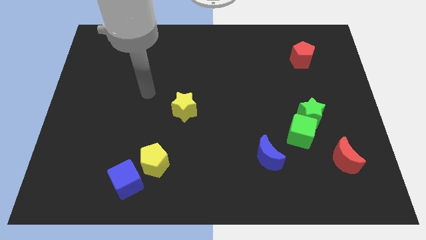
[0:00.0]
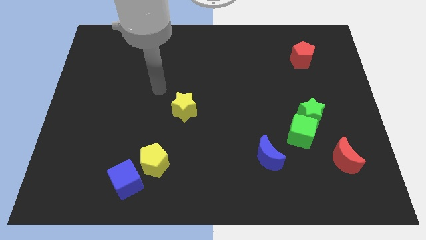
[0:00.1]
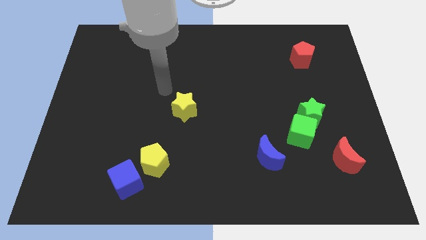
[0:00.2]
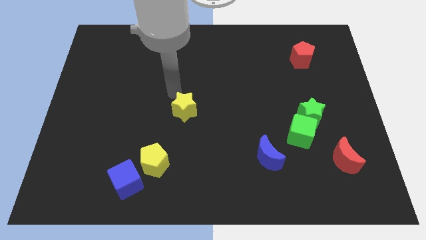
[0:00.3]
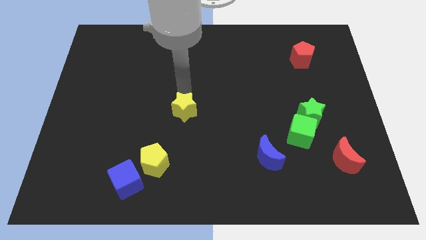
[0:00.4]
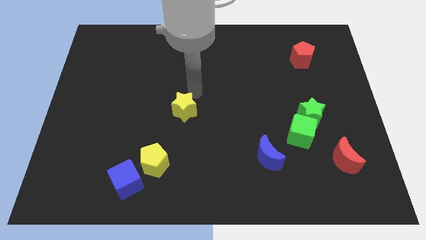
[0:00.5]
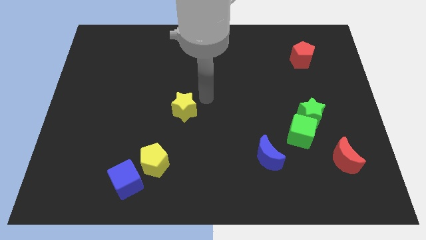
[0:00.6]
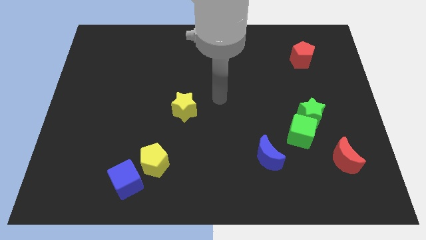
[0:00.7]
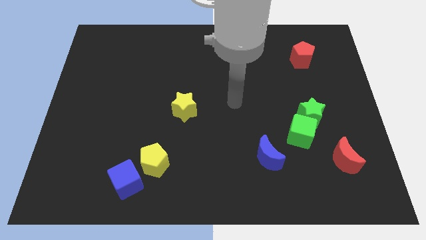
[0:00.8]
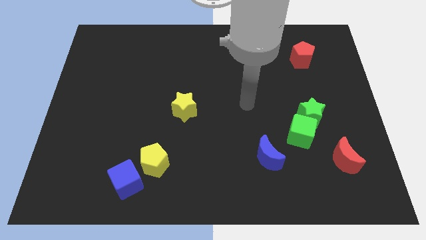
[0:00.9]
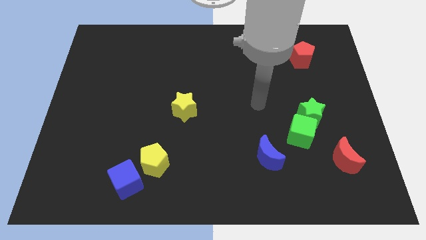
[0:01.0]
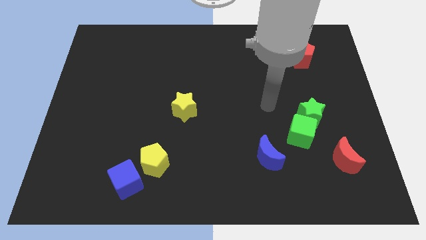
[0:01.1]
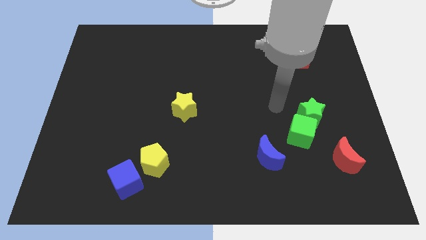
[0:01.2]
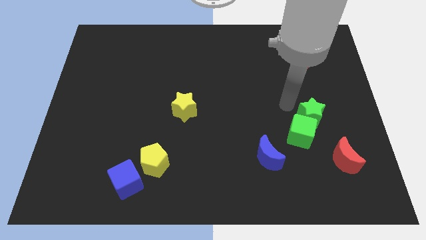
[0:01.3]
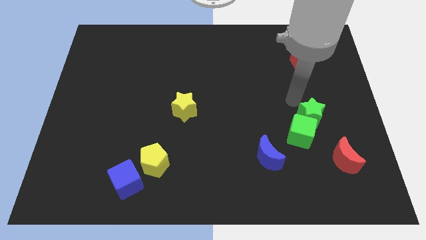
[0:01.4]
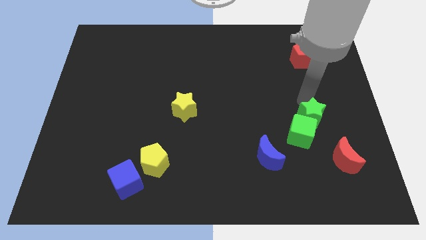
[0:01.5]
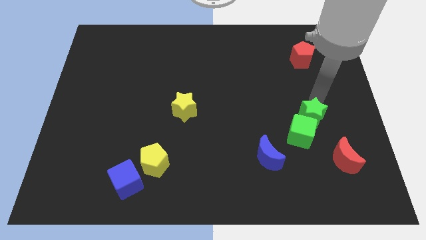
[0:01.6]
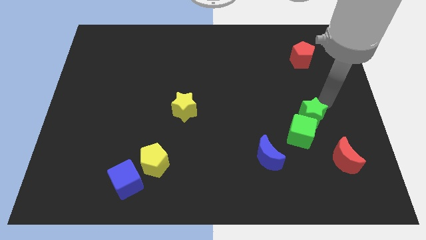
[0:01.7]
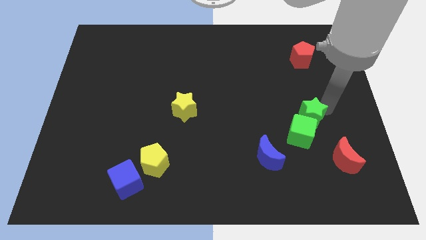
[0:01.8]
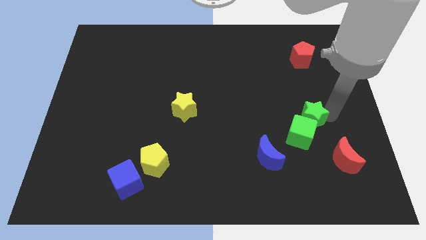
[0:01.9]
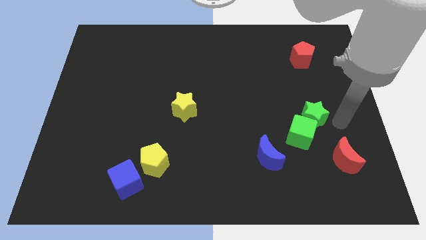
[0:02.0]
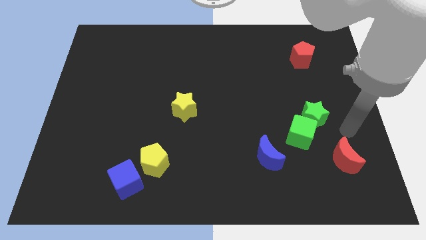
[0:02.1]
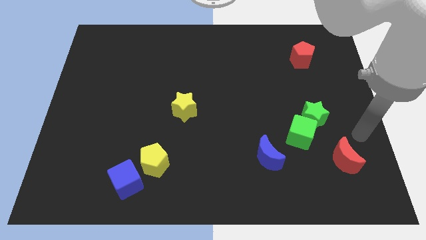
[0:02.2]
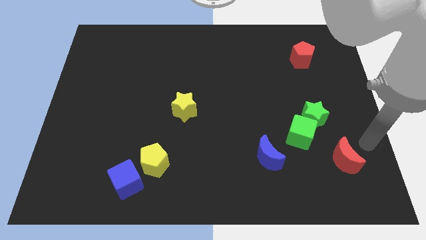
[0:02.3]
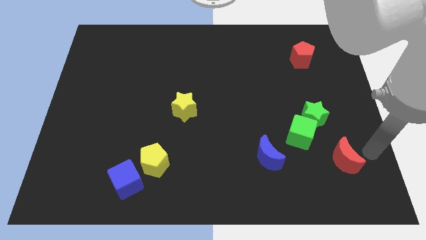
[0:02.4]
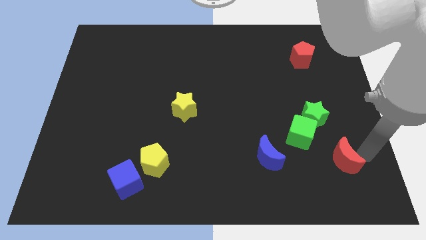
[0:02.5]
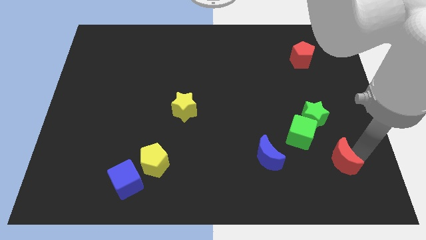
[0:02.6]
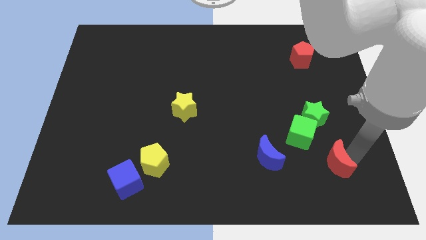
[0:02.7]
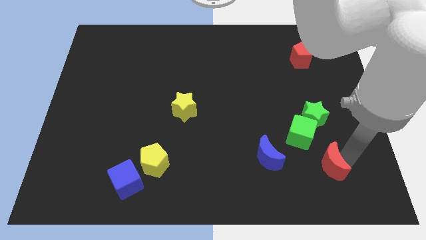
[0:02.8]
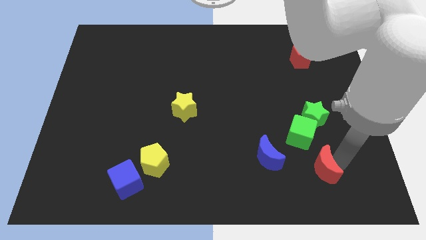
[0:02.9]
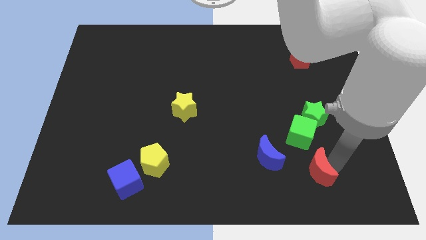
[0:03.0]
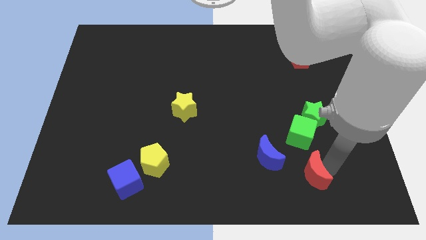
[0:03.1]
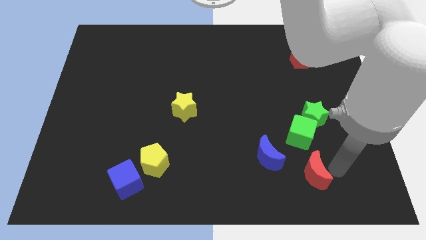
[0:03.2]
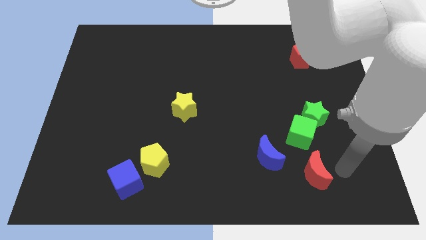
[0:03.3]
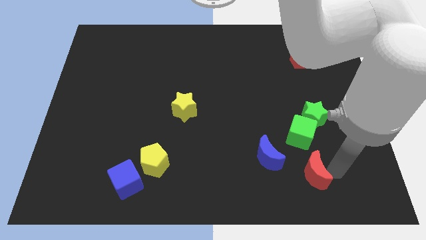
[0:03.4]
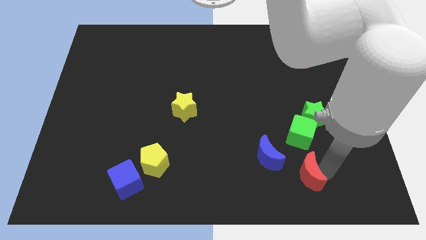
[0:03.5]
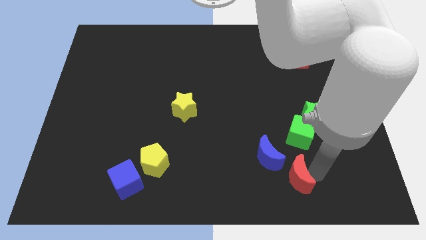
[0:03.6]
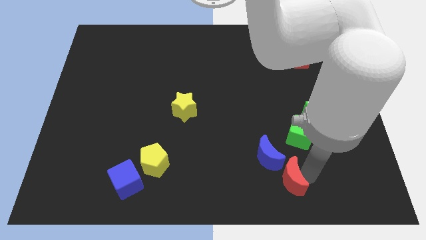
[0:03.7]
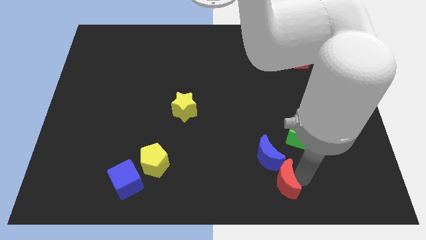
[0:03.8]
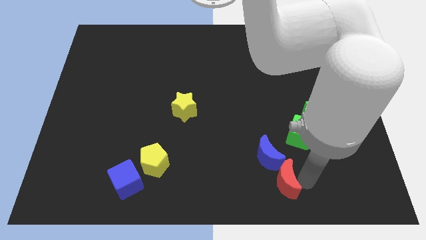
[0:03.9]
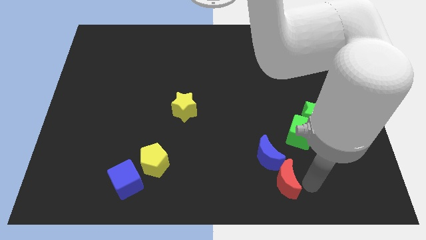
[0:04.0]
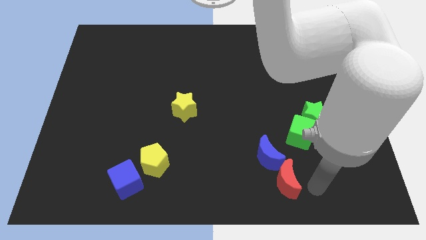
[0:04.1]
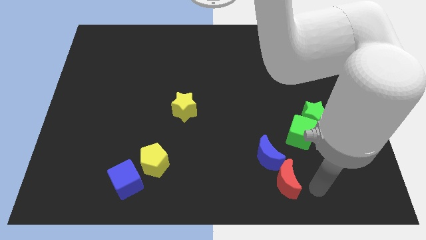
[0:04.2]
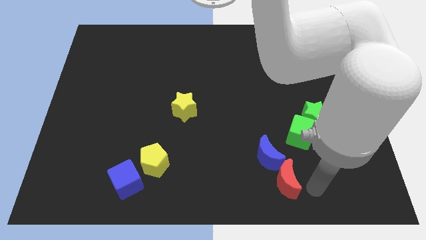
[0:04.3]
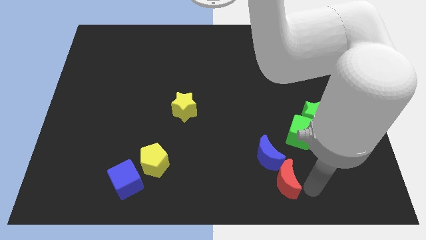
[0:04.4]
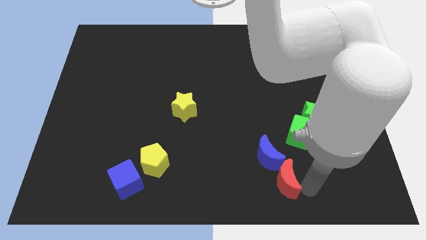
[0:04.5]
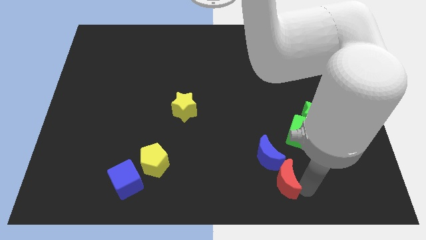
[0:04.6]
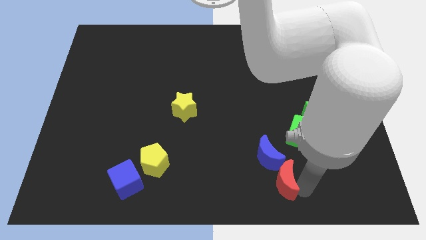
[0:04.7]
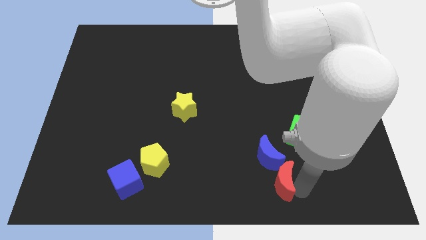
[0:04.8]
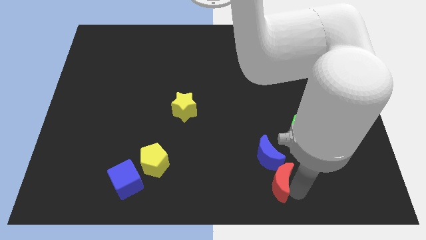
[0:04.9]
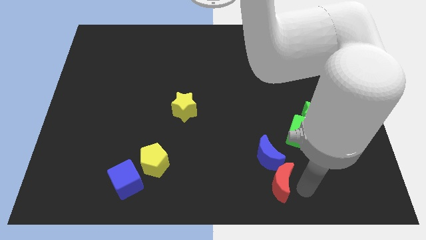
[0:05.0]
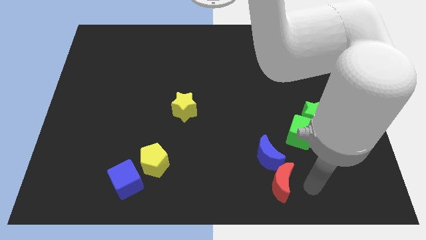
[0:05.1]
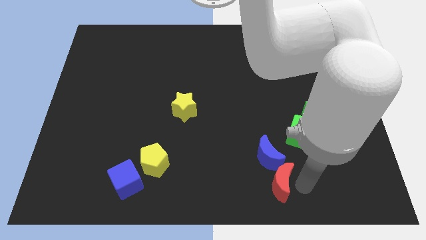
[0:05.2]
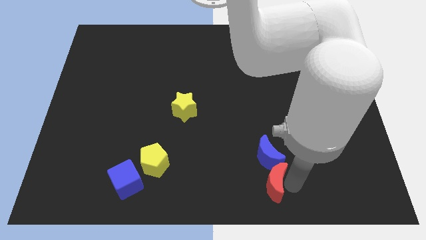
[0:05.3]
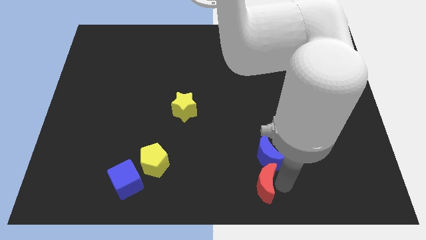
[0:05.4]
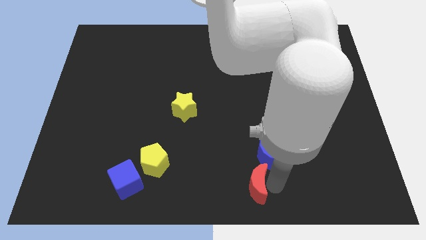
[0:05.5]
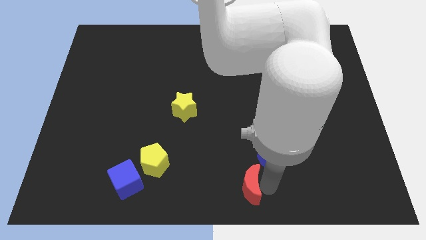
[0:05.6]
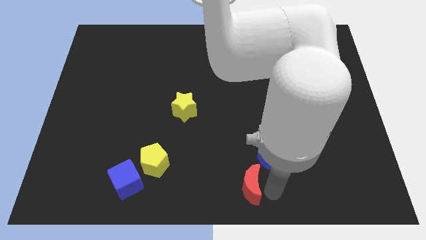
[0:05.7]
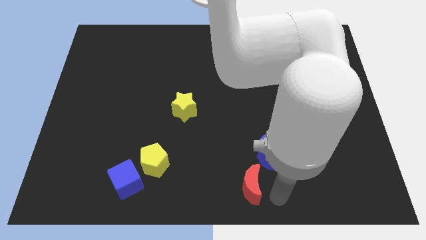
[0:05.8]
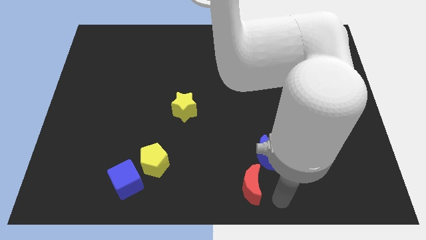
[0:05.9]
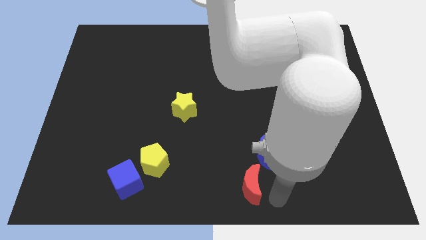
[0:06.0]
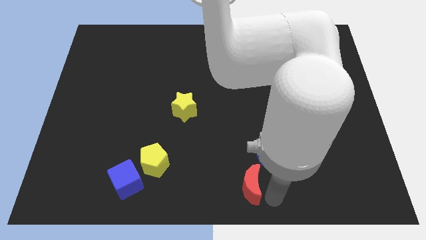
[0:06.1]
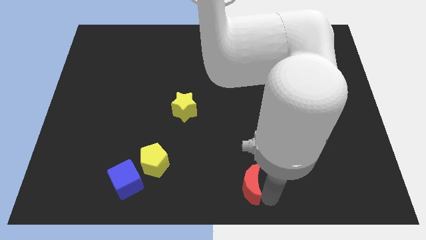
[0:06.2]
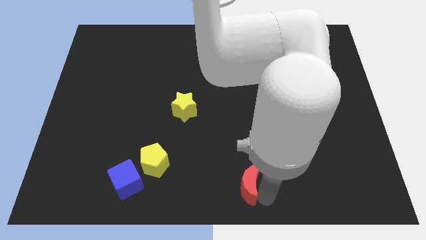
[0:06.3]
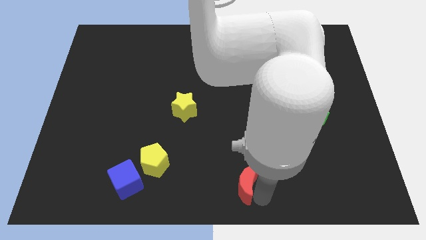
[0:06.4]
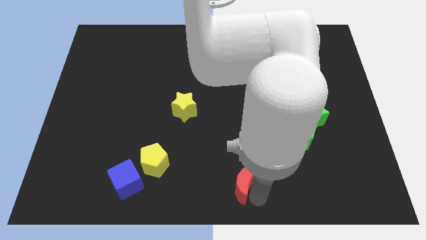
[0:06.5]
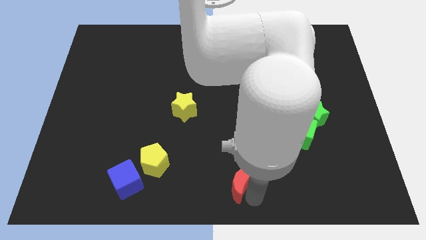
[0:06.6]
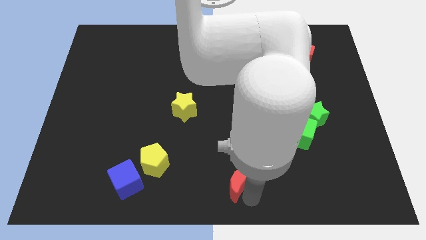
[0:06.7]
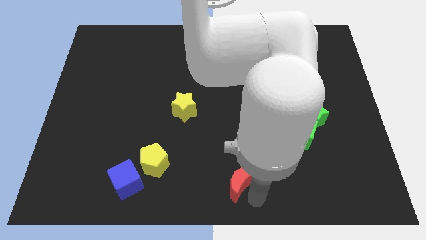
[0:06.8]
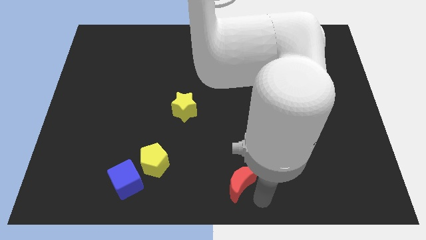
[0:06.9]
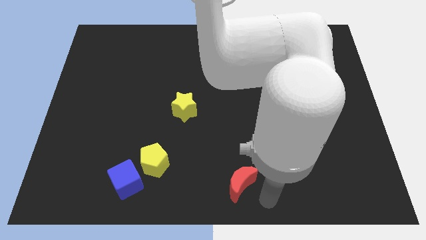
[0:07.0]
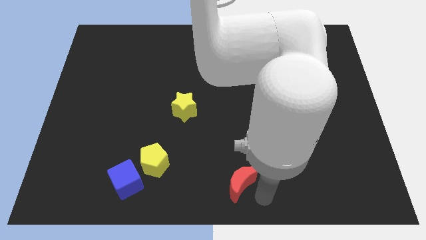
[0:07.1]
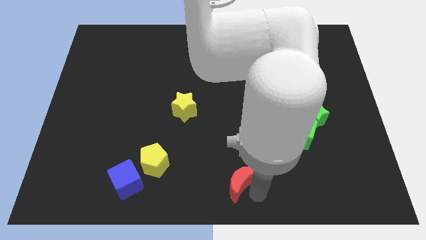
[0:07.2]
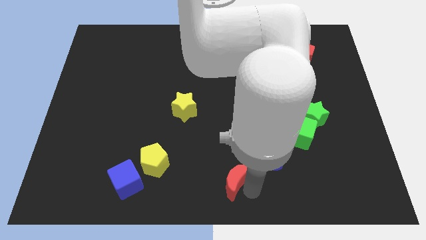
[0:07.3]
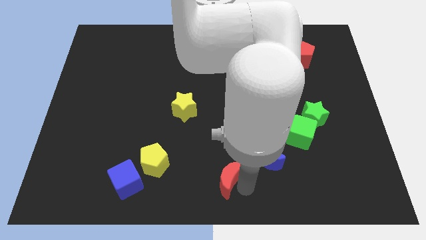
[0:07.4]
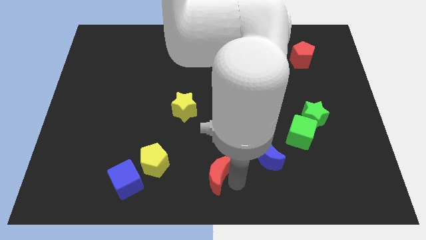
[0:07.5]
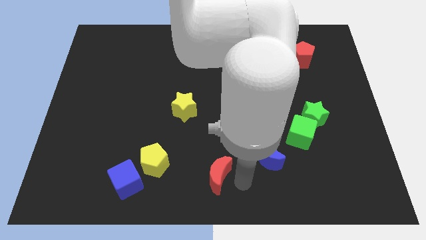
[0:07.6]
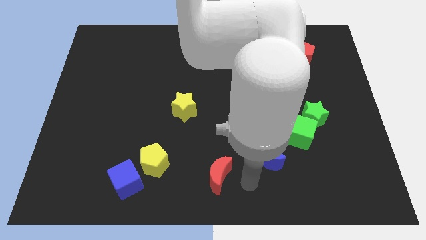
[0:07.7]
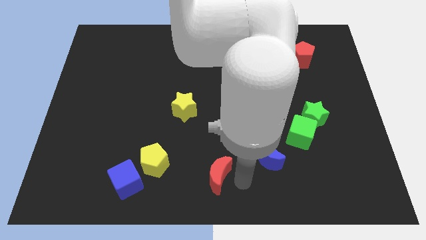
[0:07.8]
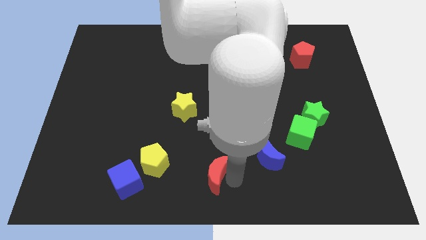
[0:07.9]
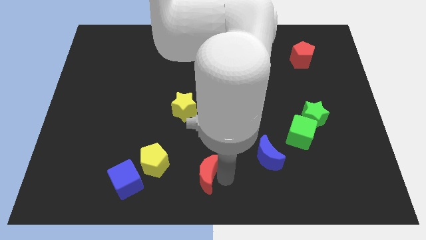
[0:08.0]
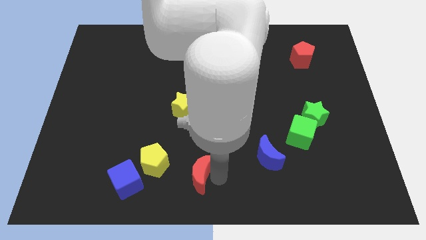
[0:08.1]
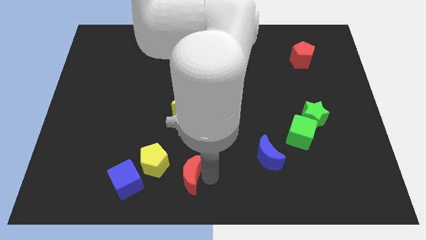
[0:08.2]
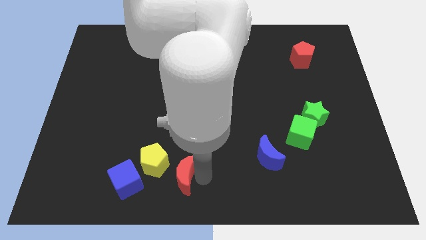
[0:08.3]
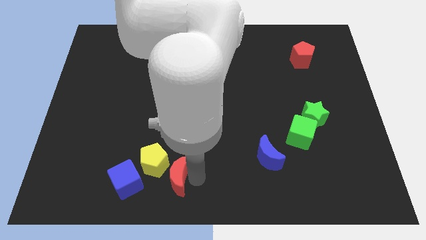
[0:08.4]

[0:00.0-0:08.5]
slide the red moon next to the yellow pentagon
